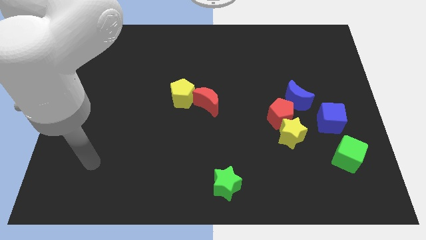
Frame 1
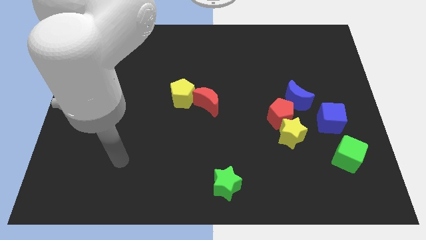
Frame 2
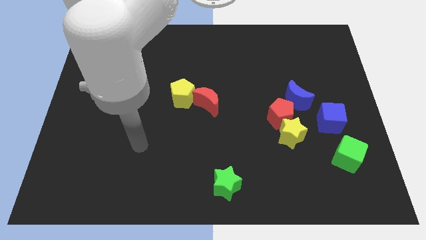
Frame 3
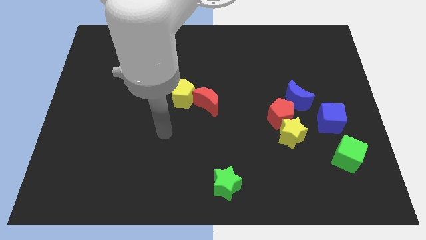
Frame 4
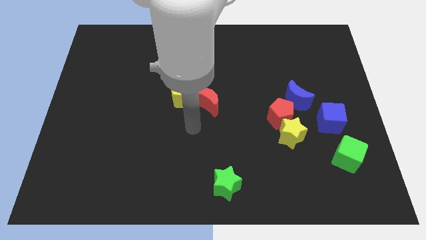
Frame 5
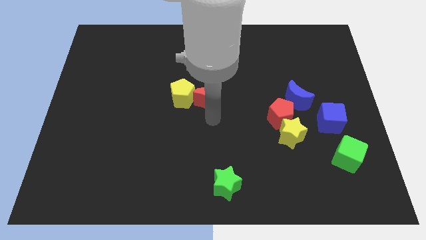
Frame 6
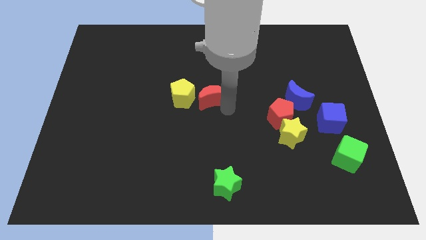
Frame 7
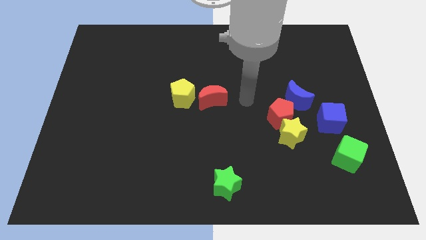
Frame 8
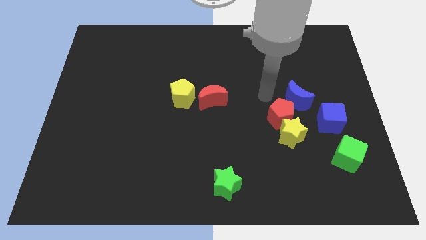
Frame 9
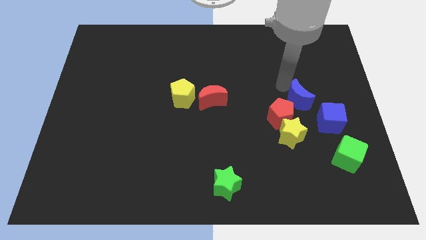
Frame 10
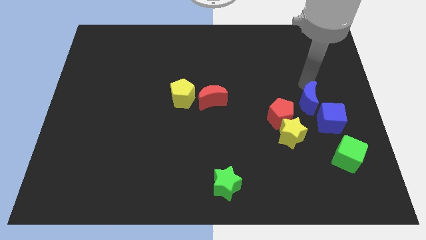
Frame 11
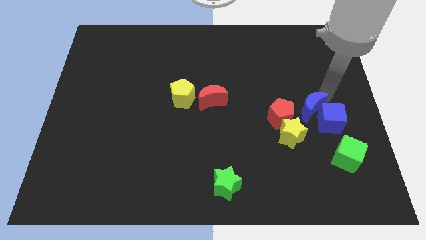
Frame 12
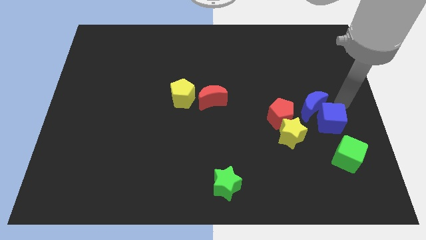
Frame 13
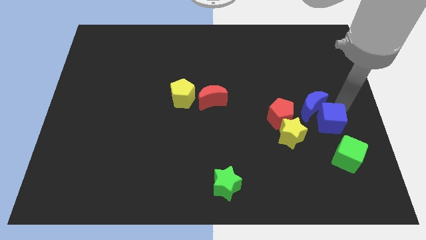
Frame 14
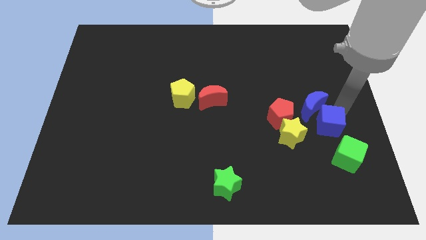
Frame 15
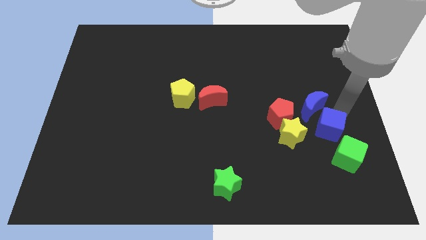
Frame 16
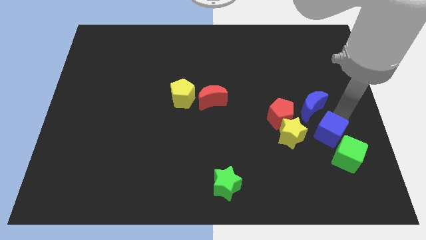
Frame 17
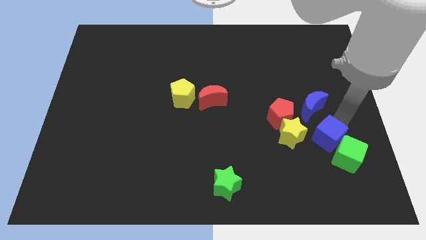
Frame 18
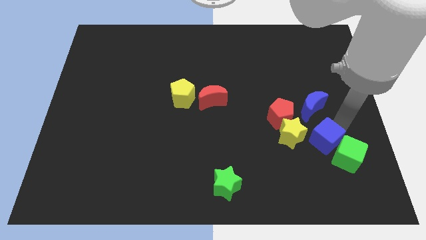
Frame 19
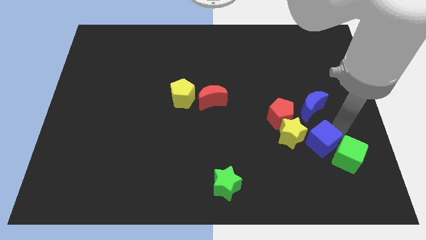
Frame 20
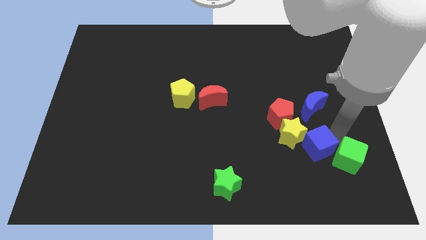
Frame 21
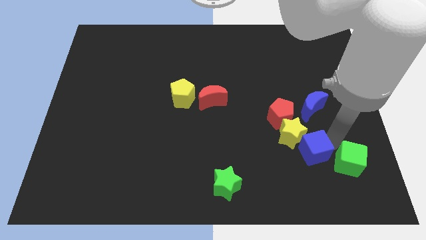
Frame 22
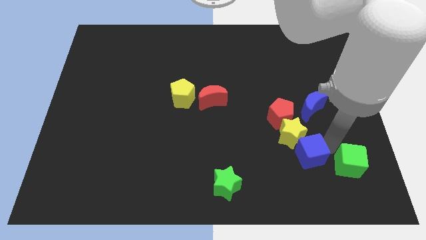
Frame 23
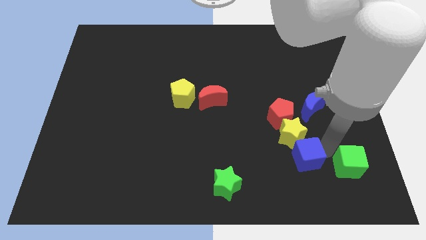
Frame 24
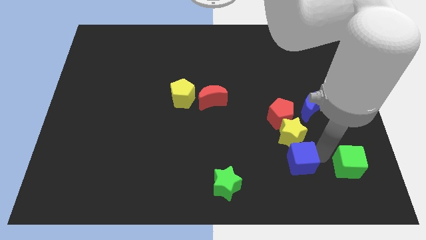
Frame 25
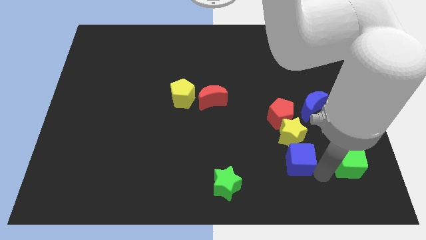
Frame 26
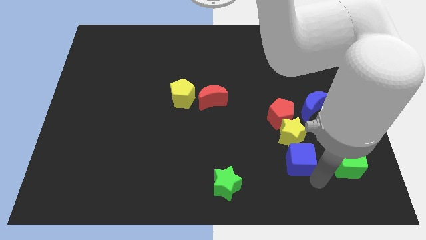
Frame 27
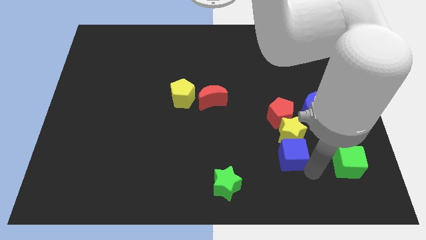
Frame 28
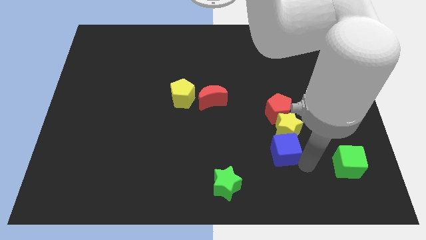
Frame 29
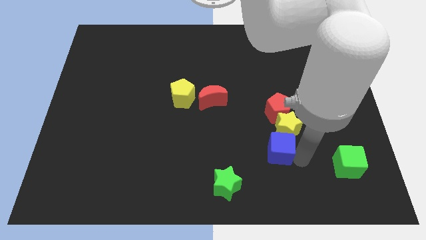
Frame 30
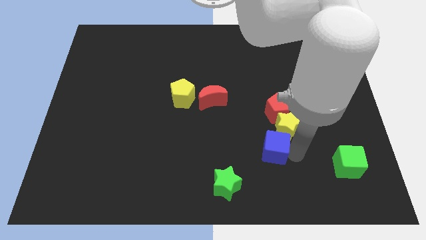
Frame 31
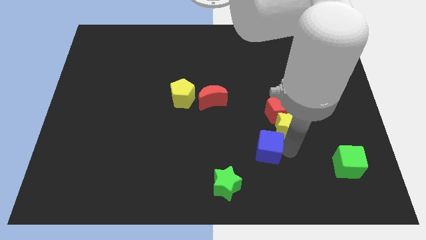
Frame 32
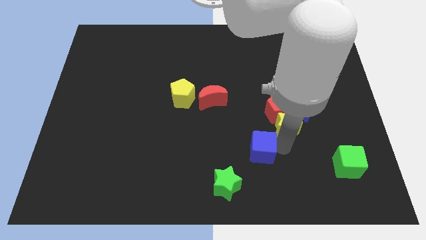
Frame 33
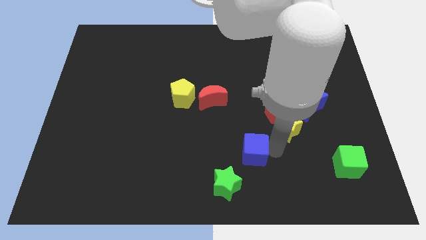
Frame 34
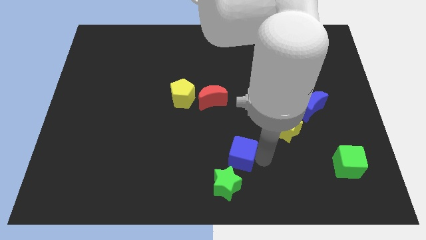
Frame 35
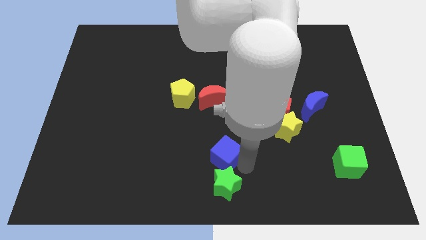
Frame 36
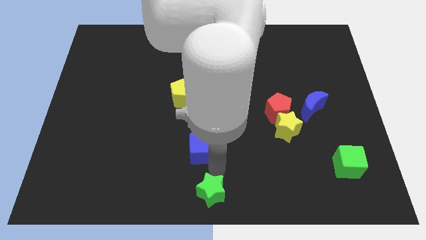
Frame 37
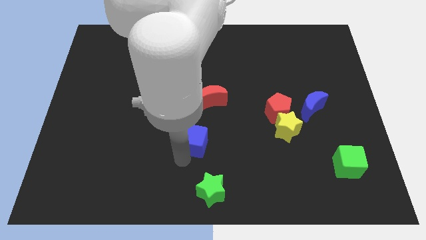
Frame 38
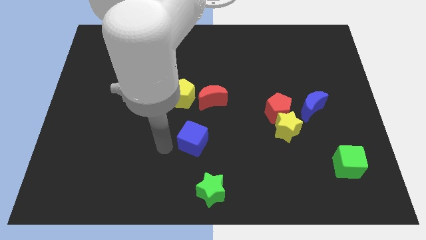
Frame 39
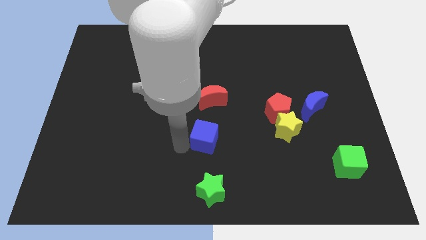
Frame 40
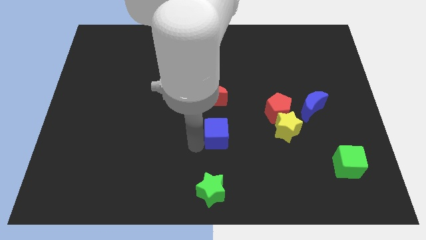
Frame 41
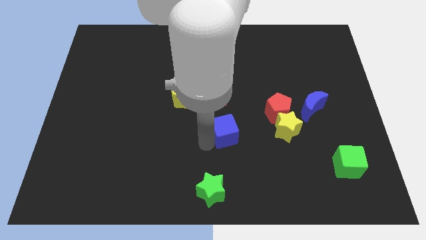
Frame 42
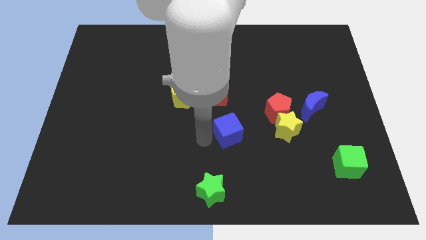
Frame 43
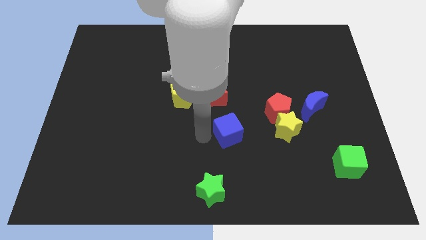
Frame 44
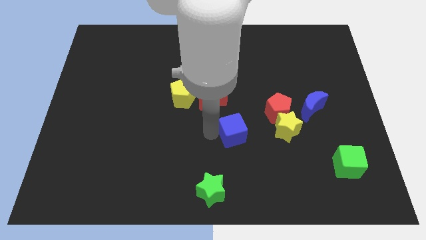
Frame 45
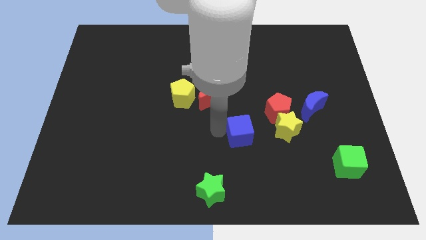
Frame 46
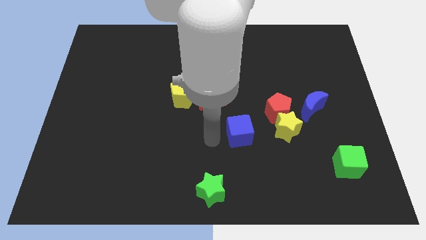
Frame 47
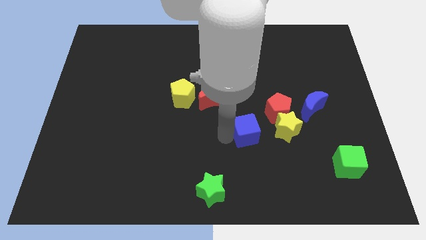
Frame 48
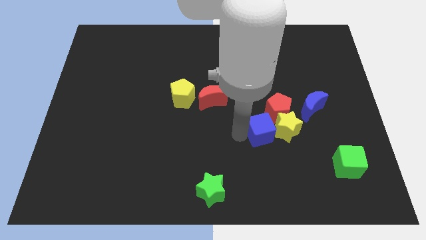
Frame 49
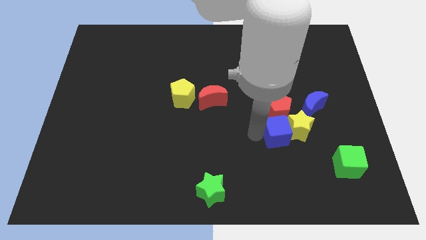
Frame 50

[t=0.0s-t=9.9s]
put the blue cube to the bottom left side of the blue moon

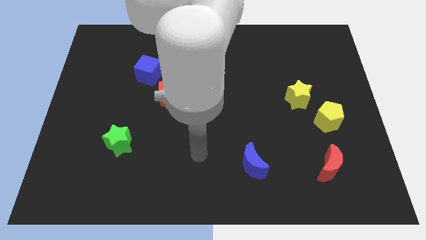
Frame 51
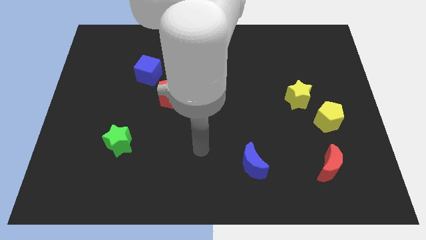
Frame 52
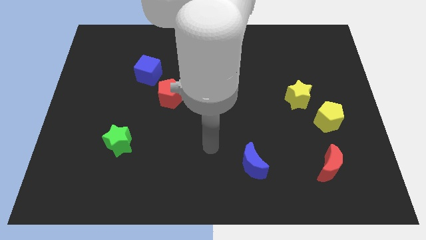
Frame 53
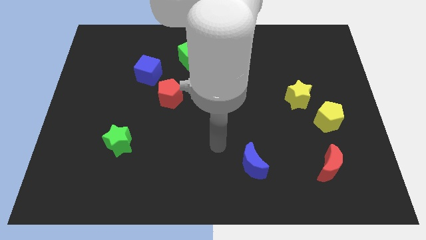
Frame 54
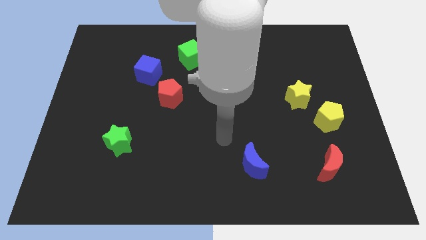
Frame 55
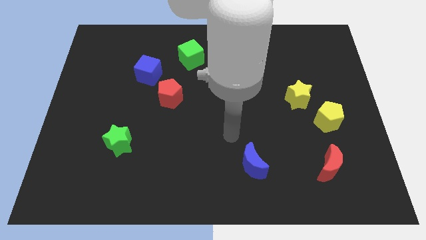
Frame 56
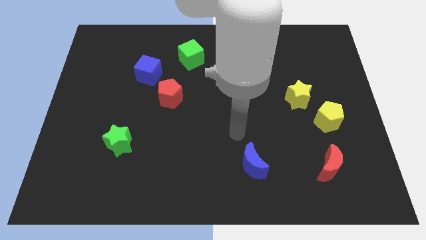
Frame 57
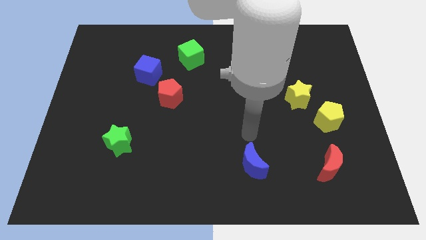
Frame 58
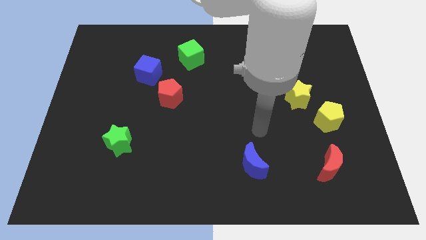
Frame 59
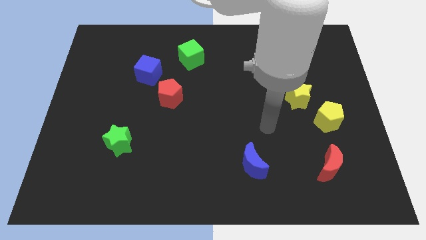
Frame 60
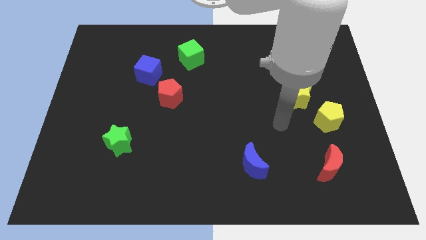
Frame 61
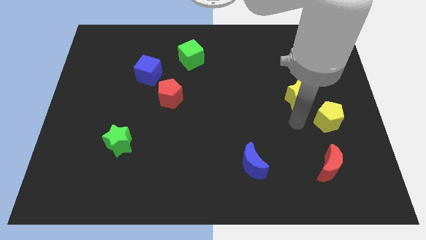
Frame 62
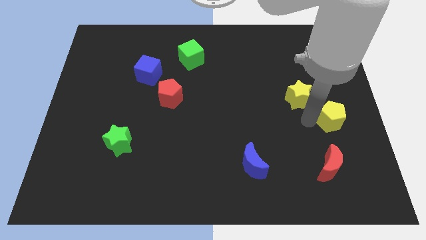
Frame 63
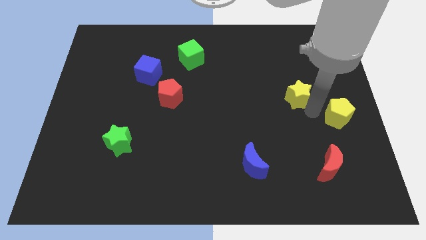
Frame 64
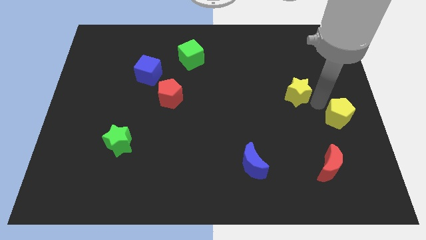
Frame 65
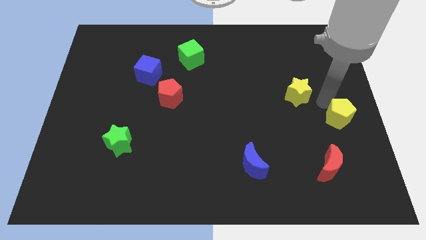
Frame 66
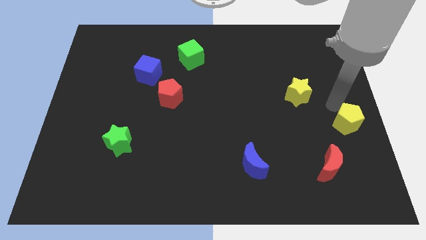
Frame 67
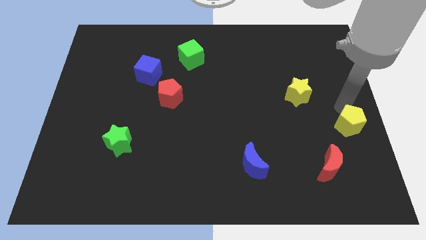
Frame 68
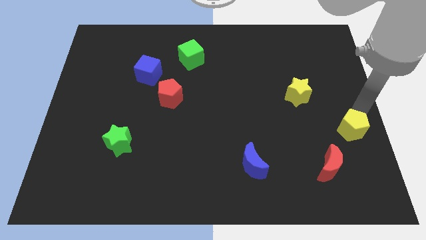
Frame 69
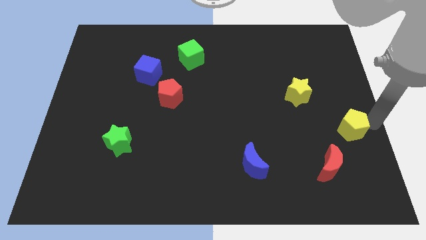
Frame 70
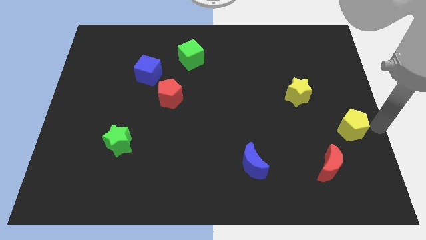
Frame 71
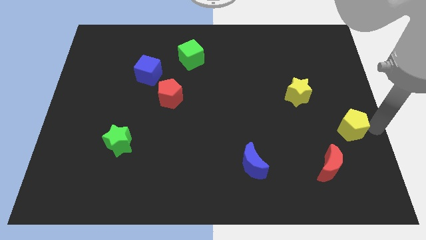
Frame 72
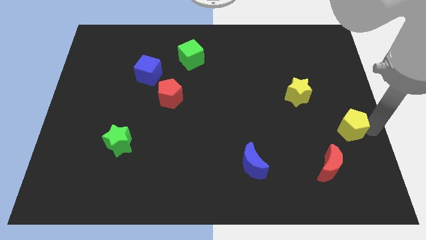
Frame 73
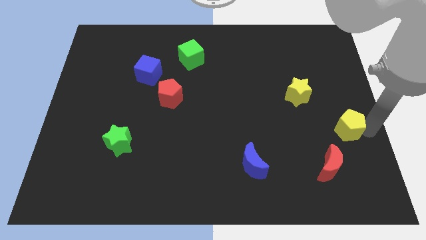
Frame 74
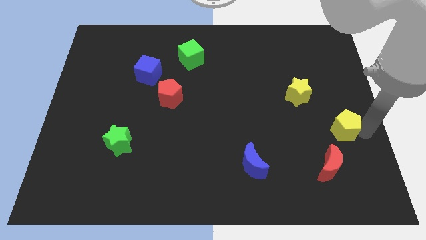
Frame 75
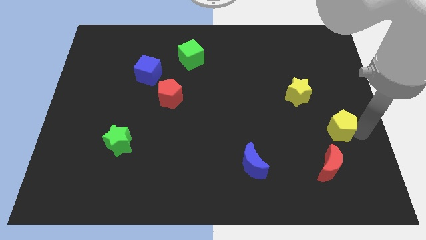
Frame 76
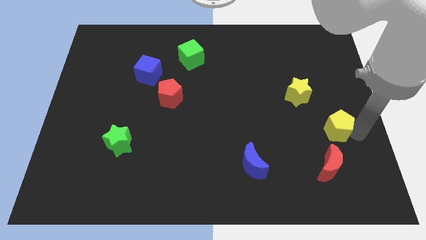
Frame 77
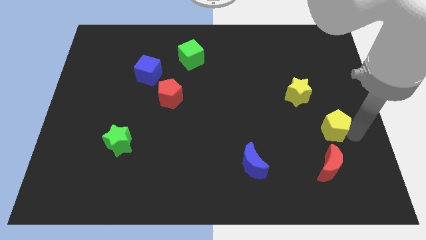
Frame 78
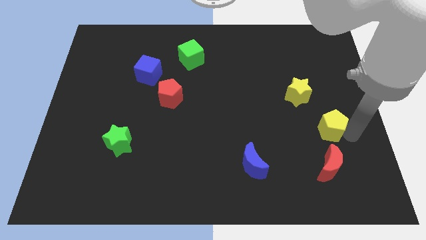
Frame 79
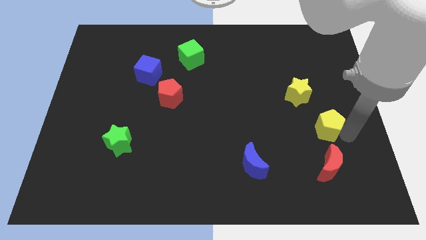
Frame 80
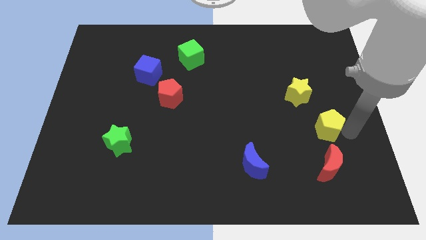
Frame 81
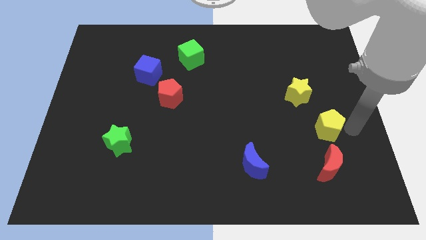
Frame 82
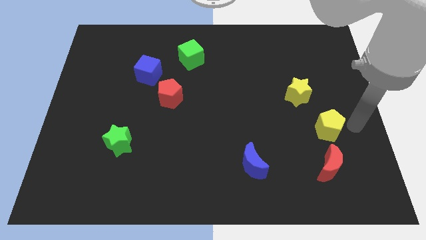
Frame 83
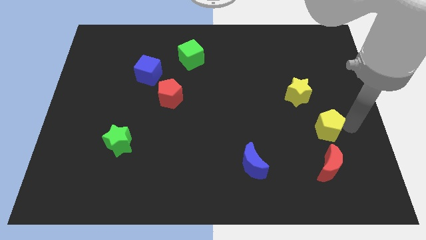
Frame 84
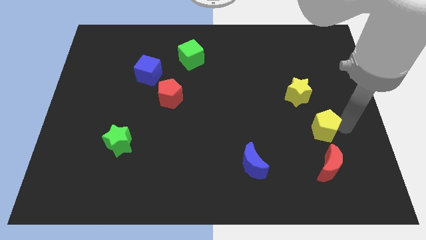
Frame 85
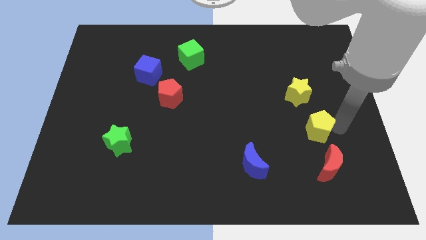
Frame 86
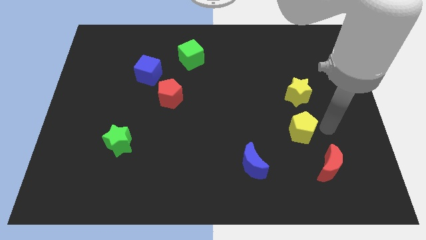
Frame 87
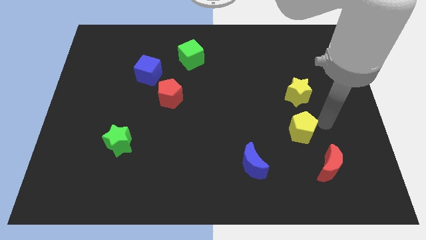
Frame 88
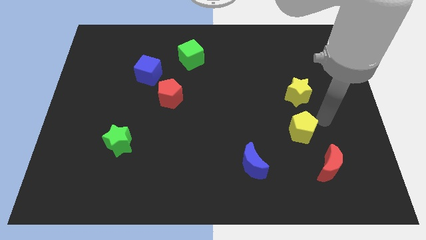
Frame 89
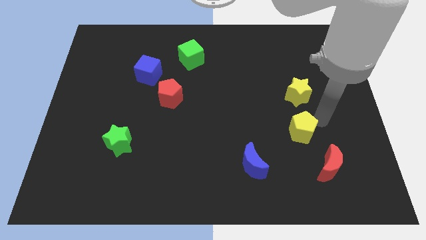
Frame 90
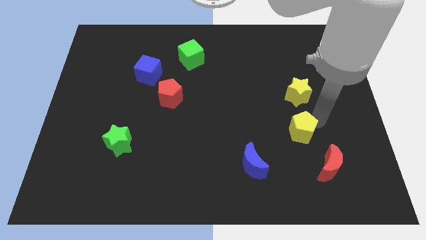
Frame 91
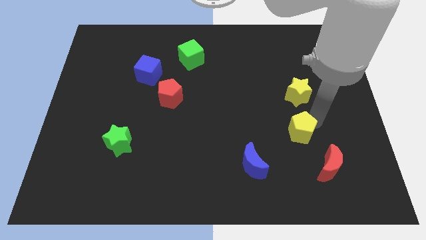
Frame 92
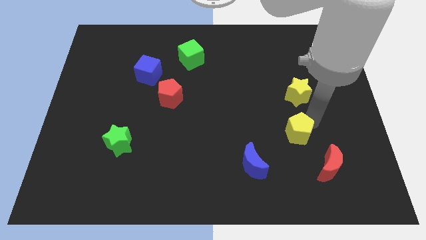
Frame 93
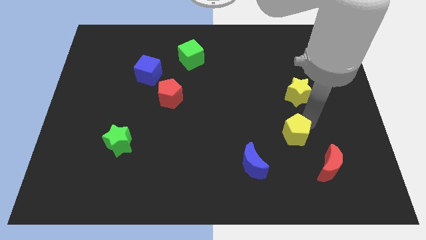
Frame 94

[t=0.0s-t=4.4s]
push the yellow pentagon diagonally up and to the right of the blue moon
